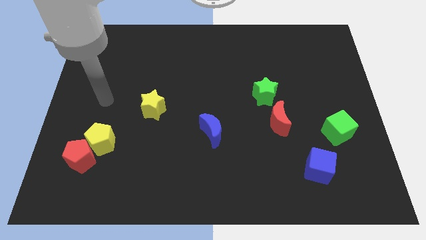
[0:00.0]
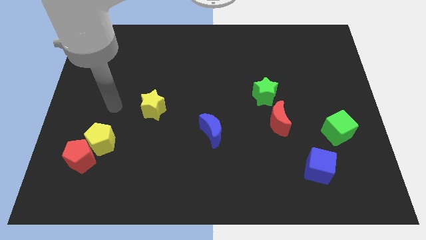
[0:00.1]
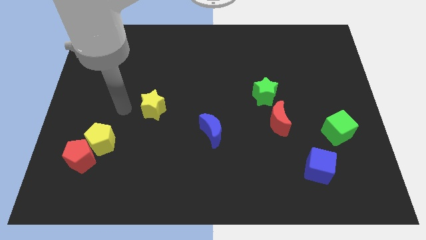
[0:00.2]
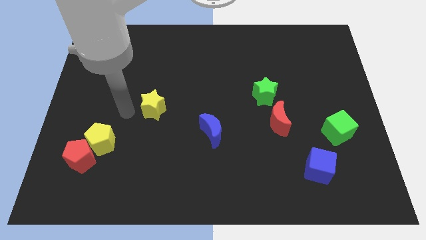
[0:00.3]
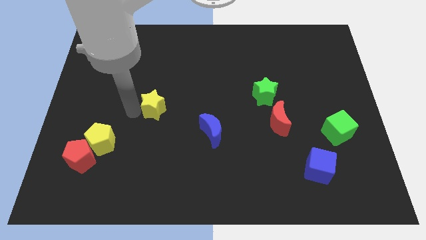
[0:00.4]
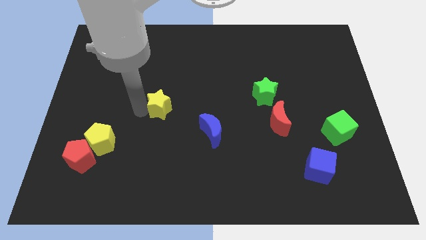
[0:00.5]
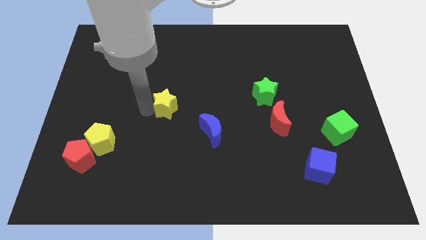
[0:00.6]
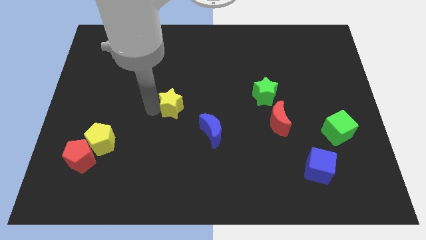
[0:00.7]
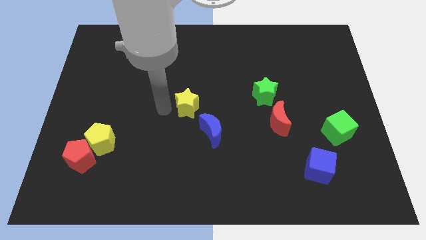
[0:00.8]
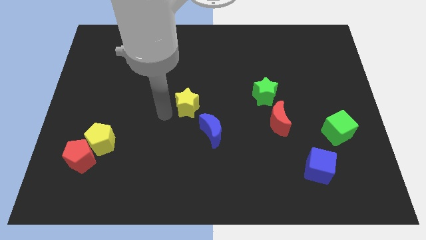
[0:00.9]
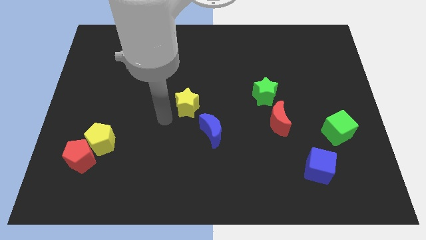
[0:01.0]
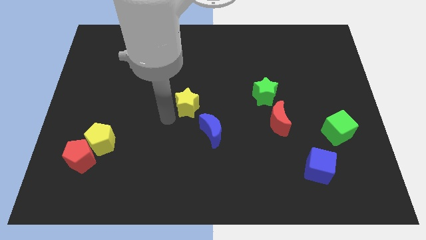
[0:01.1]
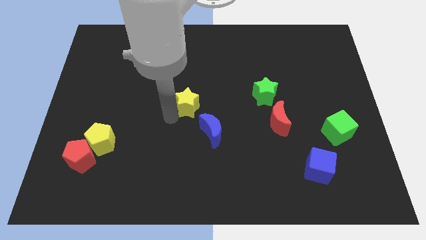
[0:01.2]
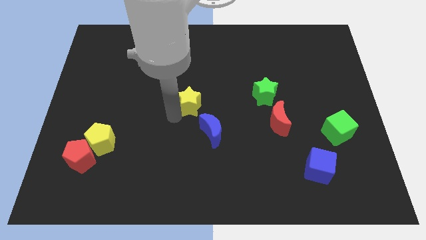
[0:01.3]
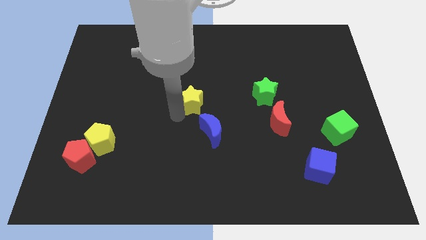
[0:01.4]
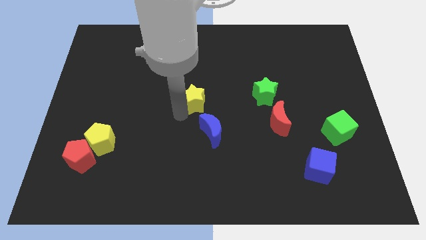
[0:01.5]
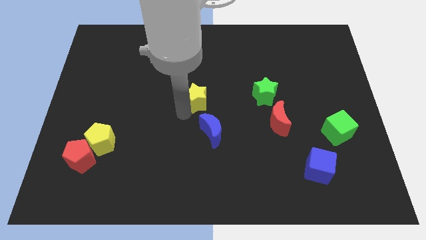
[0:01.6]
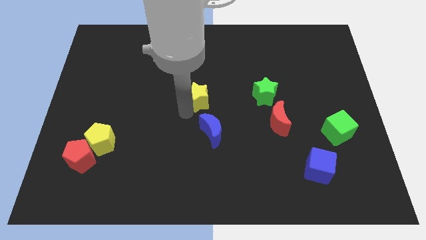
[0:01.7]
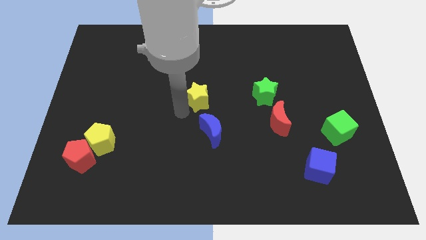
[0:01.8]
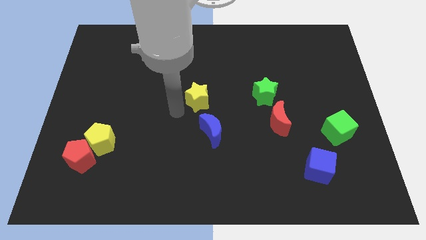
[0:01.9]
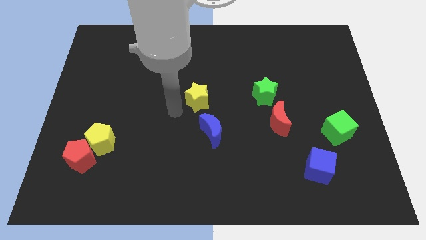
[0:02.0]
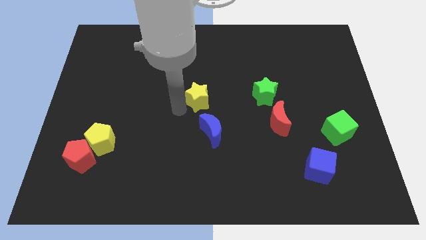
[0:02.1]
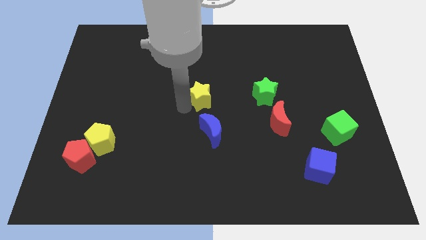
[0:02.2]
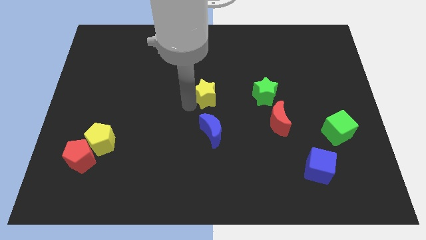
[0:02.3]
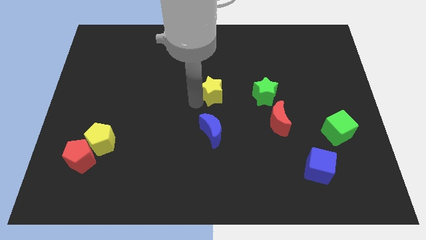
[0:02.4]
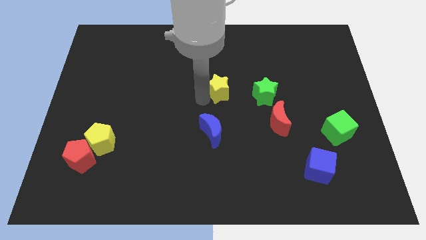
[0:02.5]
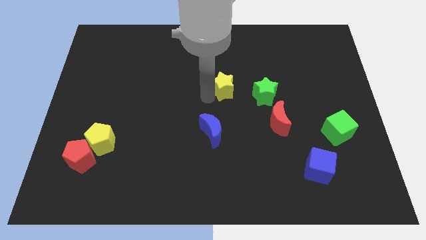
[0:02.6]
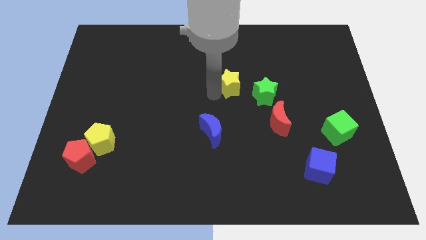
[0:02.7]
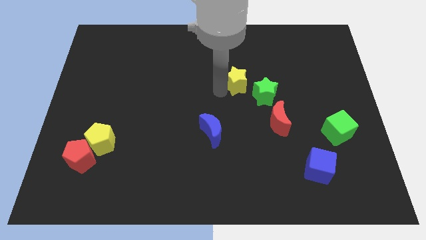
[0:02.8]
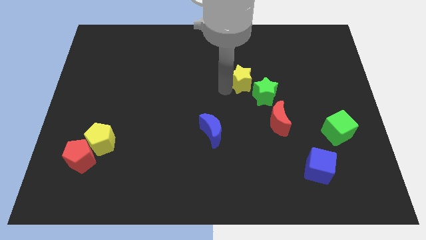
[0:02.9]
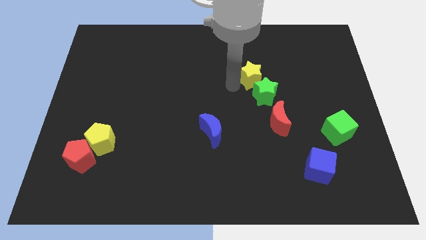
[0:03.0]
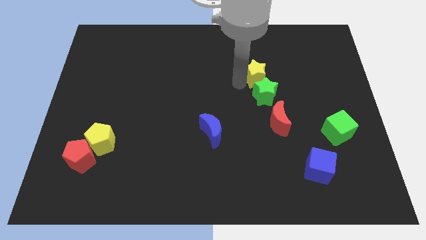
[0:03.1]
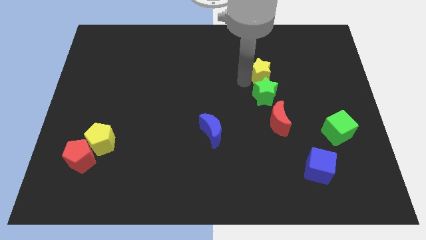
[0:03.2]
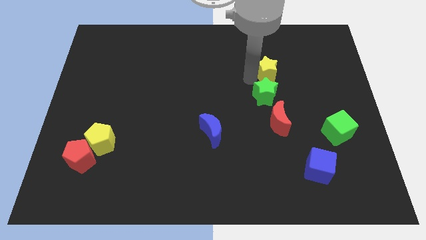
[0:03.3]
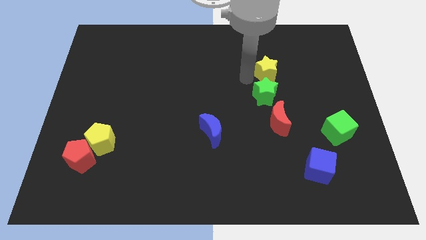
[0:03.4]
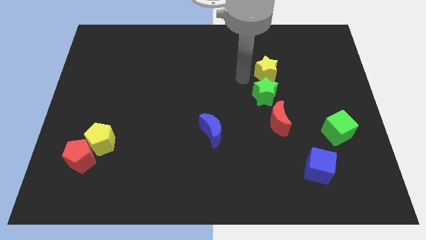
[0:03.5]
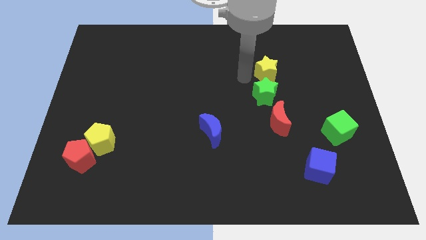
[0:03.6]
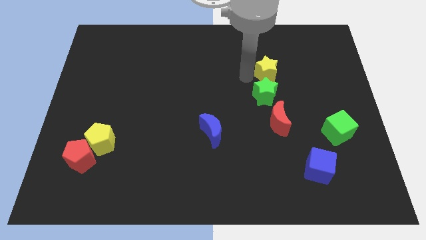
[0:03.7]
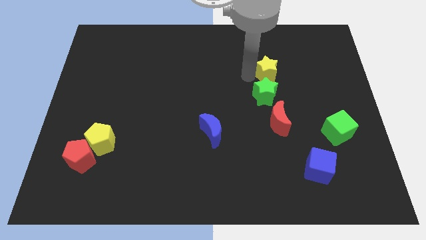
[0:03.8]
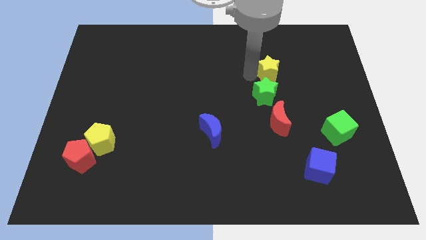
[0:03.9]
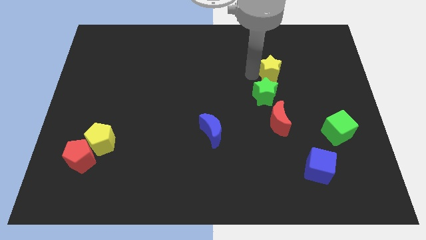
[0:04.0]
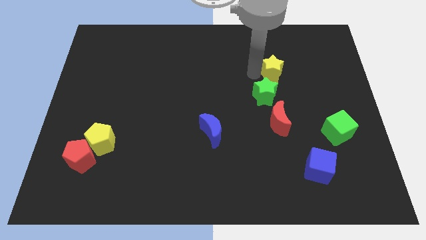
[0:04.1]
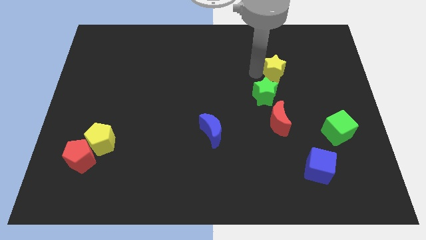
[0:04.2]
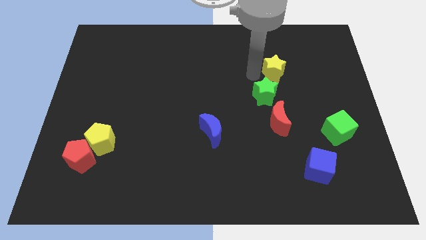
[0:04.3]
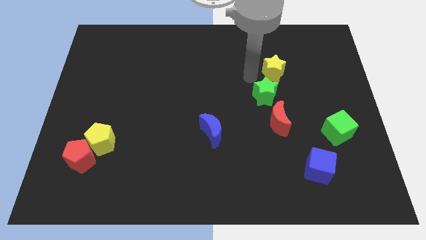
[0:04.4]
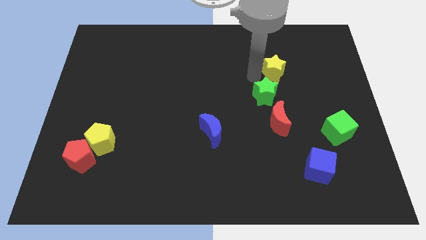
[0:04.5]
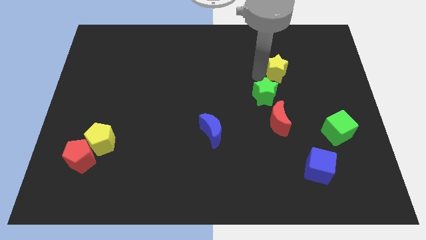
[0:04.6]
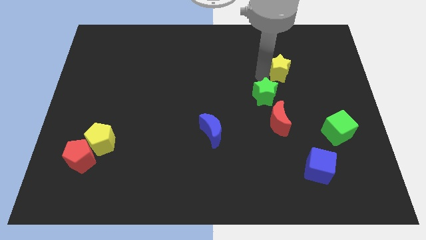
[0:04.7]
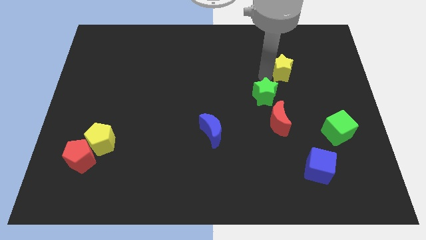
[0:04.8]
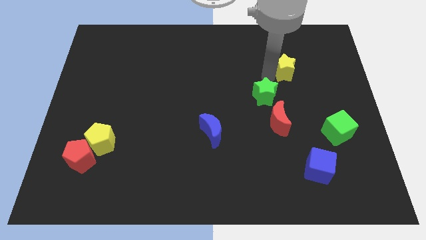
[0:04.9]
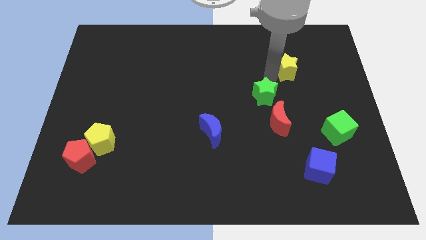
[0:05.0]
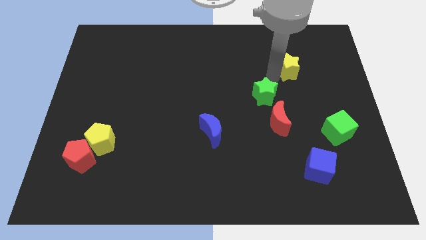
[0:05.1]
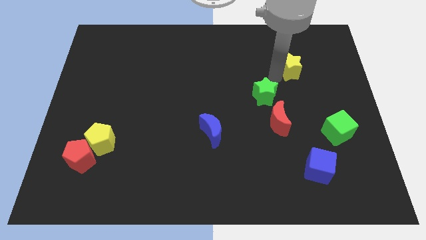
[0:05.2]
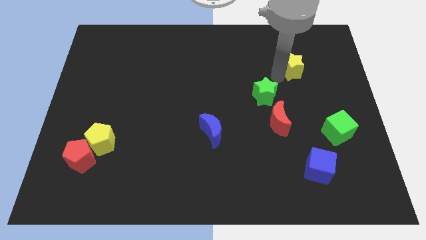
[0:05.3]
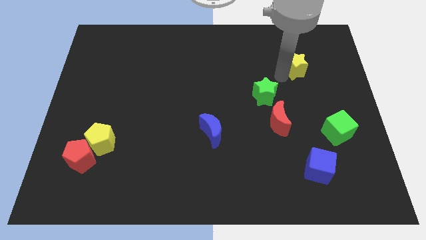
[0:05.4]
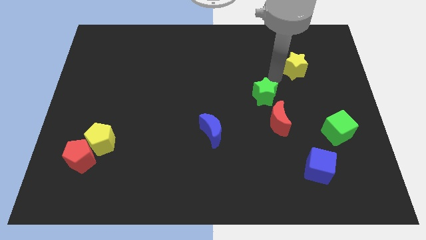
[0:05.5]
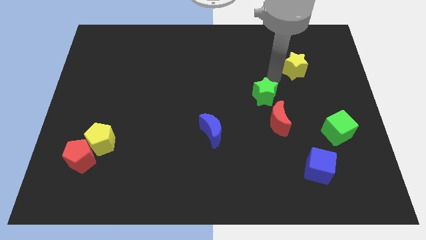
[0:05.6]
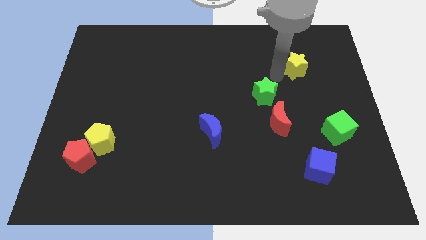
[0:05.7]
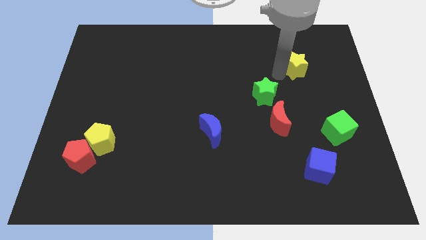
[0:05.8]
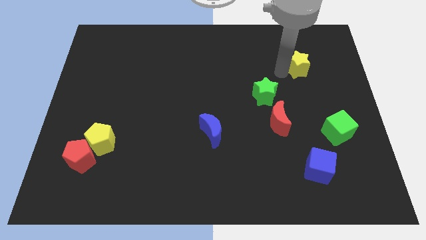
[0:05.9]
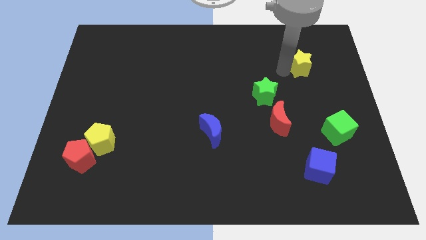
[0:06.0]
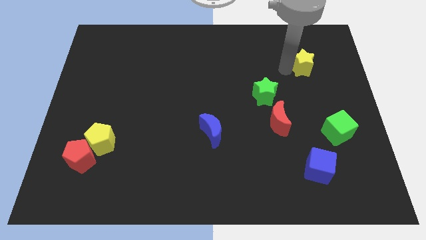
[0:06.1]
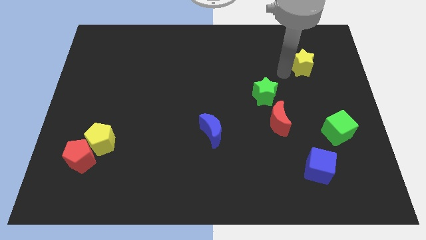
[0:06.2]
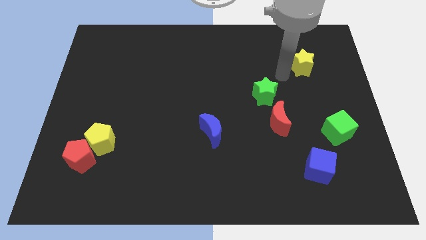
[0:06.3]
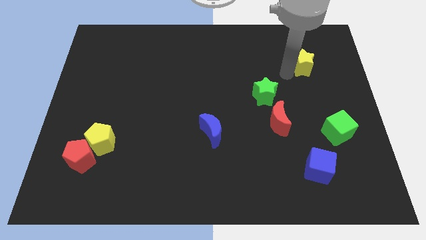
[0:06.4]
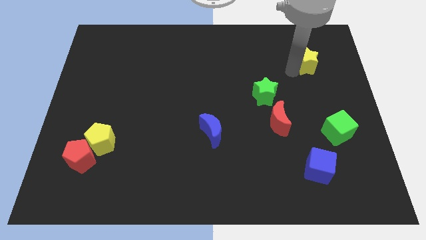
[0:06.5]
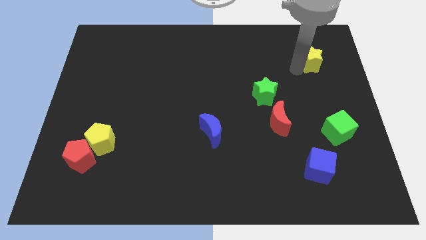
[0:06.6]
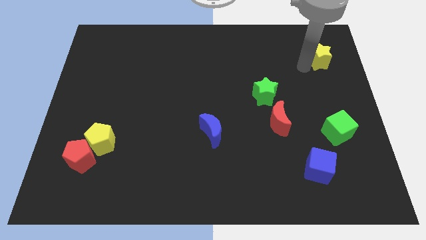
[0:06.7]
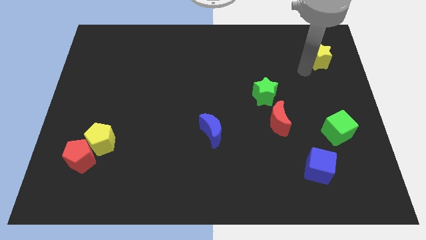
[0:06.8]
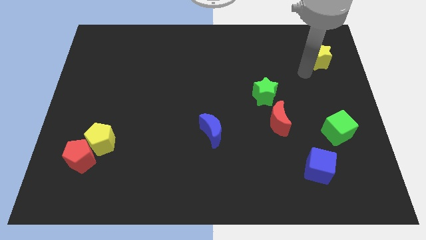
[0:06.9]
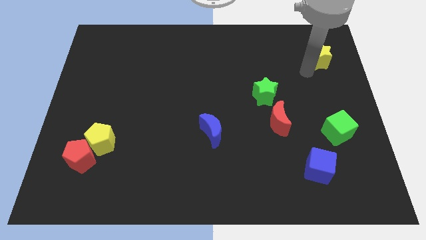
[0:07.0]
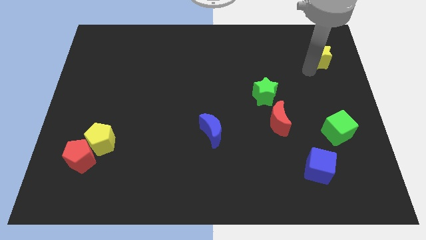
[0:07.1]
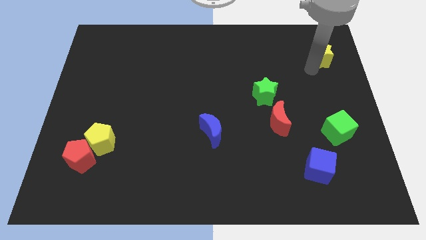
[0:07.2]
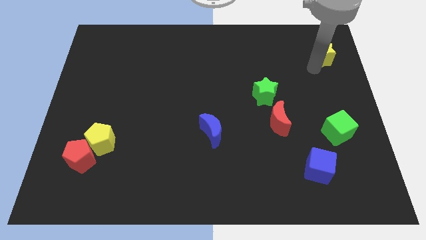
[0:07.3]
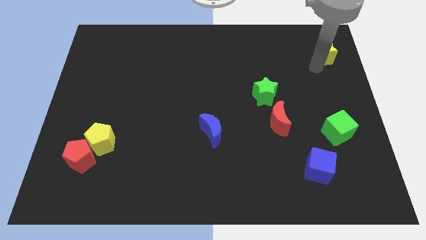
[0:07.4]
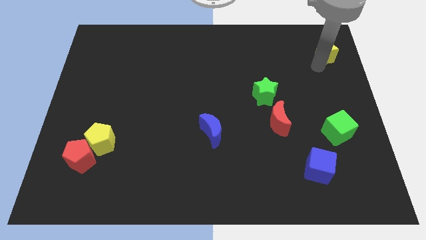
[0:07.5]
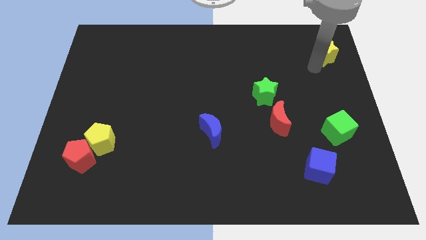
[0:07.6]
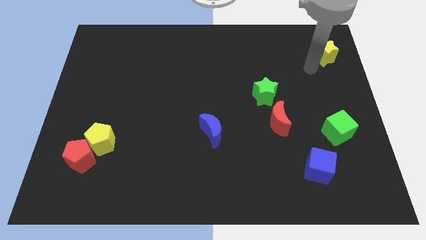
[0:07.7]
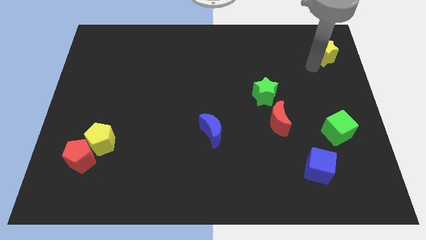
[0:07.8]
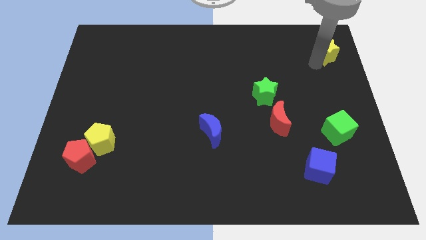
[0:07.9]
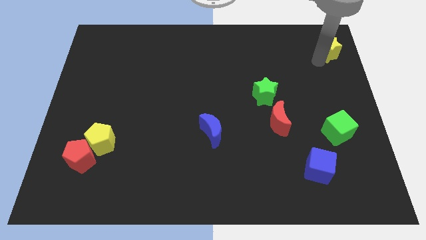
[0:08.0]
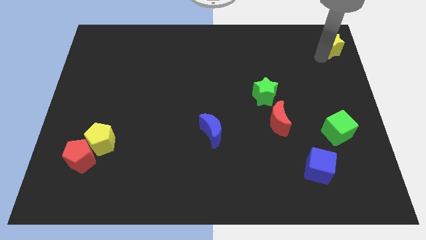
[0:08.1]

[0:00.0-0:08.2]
slide the yellow star to the top right of the board
